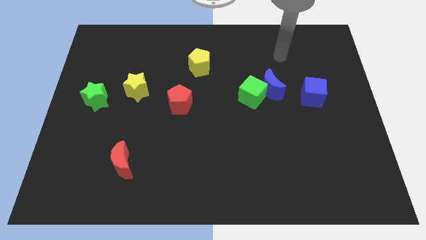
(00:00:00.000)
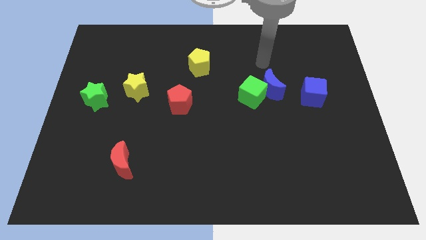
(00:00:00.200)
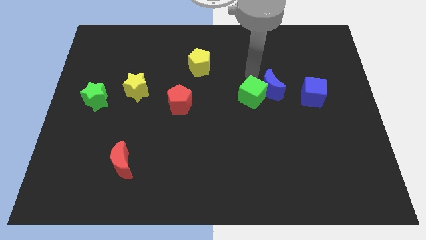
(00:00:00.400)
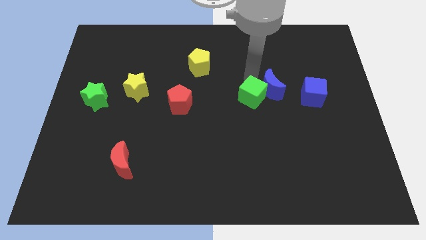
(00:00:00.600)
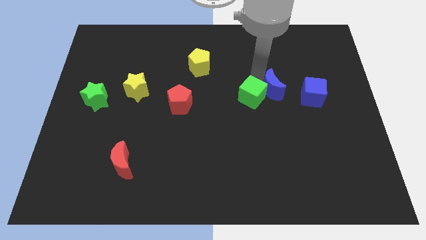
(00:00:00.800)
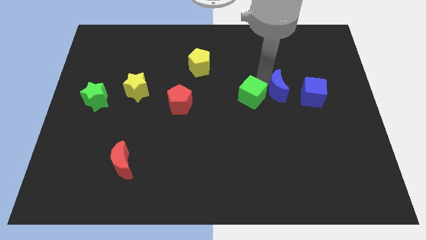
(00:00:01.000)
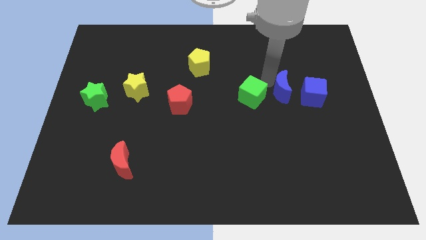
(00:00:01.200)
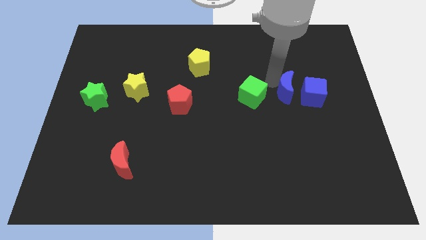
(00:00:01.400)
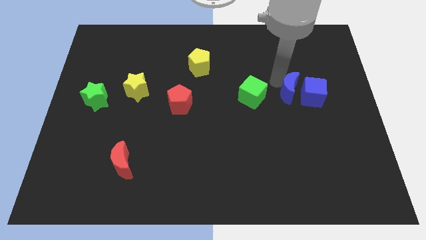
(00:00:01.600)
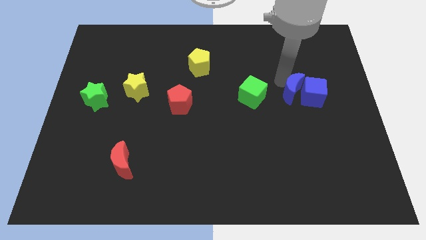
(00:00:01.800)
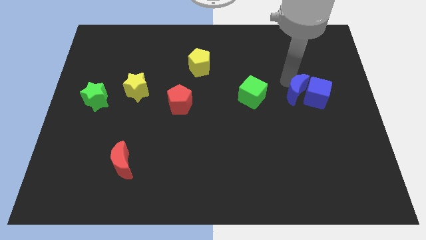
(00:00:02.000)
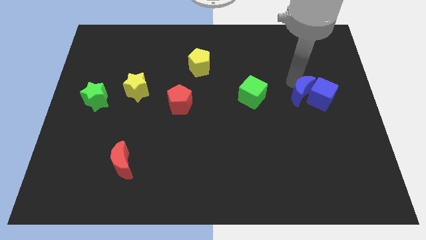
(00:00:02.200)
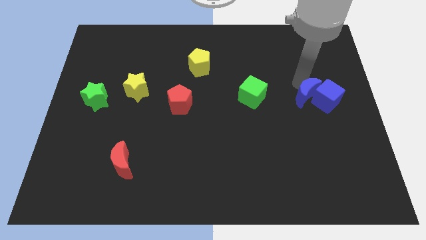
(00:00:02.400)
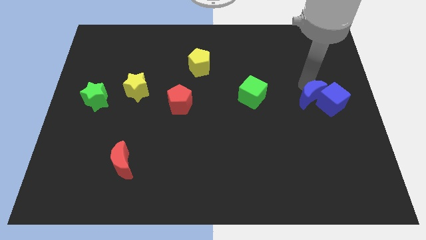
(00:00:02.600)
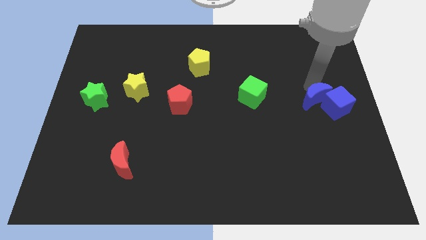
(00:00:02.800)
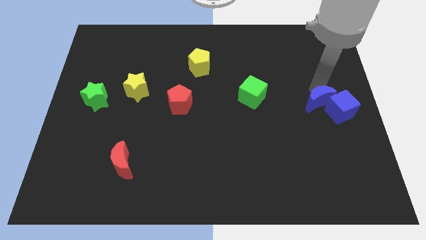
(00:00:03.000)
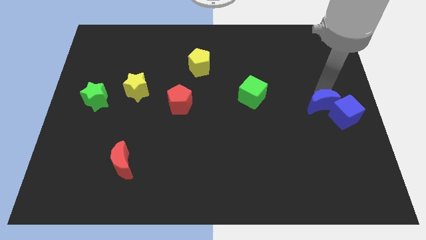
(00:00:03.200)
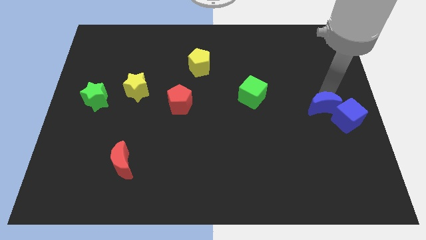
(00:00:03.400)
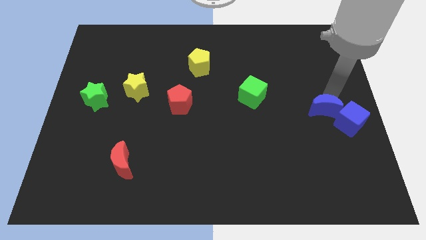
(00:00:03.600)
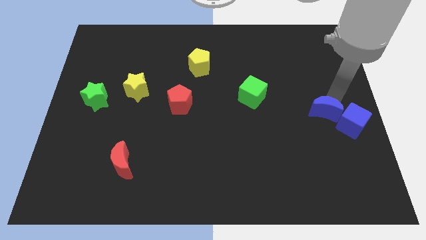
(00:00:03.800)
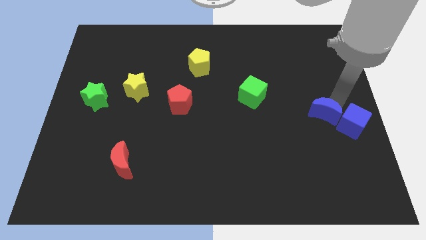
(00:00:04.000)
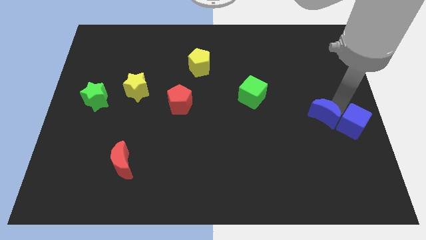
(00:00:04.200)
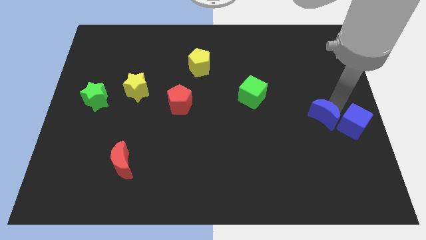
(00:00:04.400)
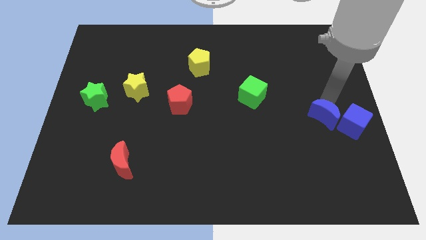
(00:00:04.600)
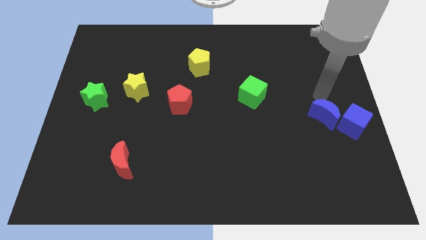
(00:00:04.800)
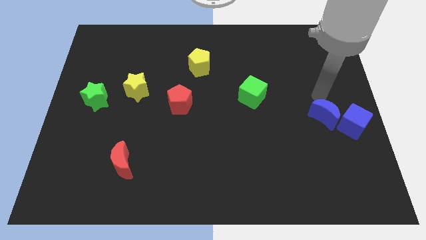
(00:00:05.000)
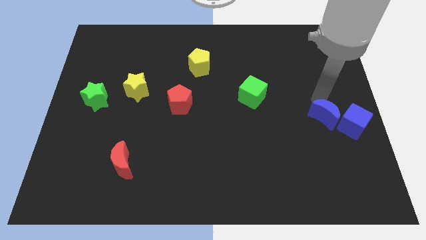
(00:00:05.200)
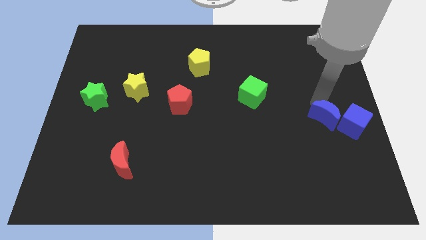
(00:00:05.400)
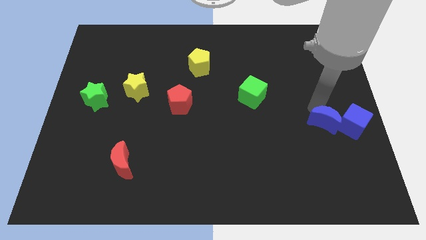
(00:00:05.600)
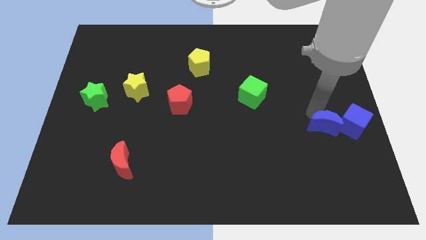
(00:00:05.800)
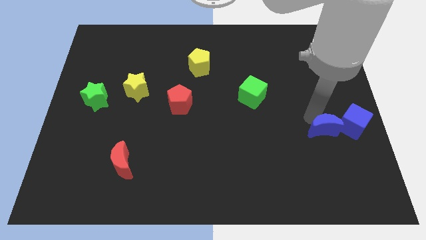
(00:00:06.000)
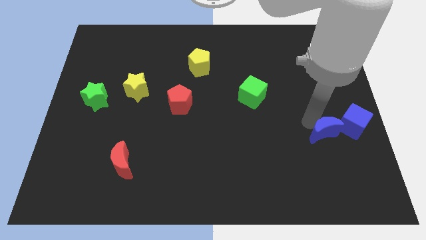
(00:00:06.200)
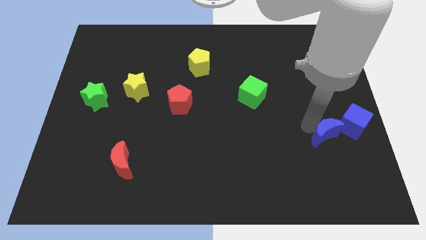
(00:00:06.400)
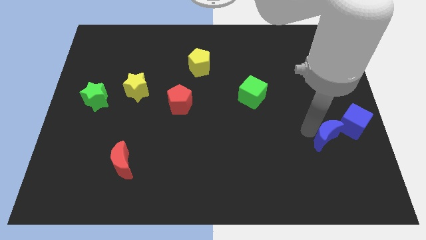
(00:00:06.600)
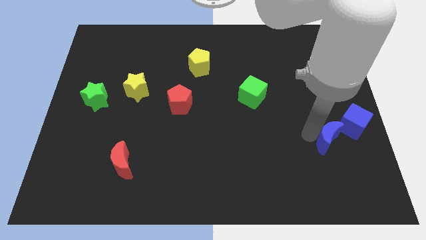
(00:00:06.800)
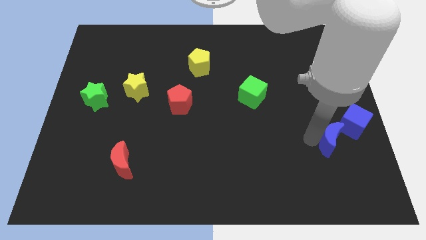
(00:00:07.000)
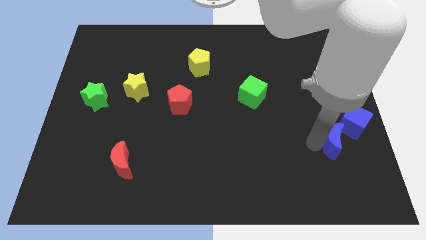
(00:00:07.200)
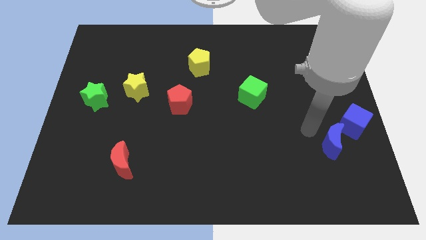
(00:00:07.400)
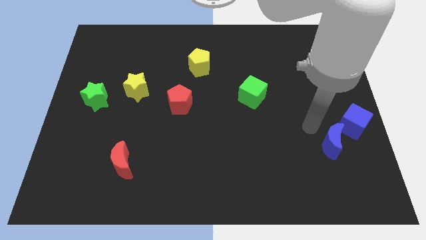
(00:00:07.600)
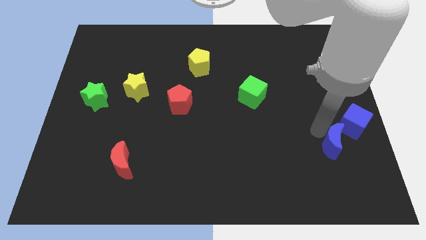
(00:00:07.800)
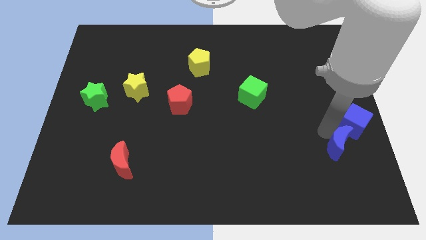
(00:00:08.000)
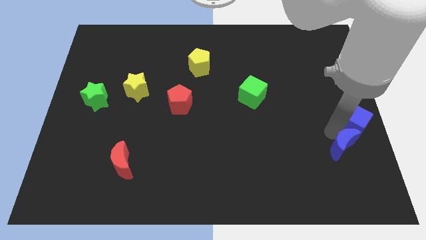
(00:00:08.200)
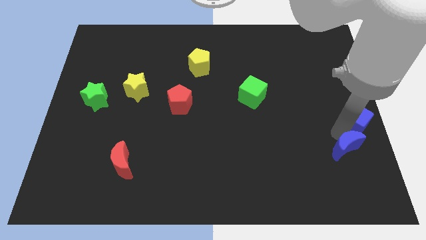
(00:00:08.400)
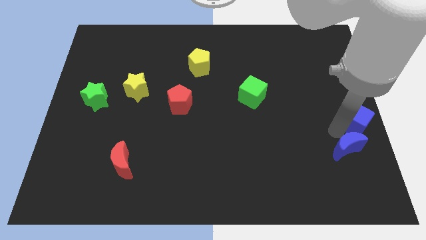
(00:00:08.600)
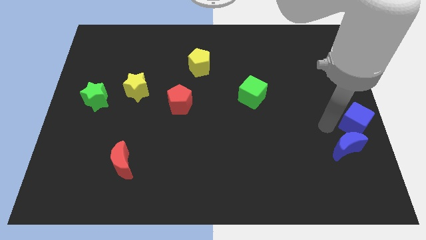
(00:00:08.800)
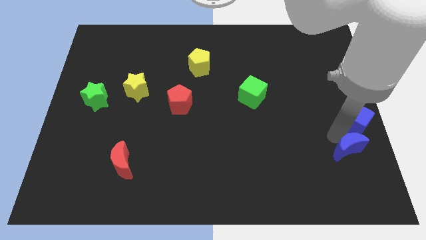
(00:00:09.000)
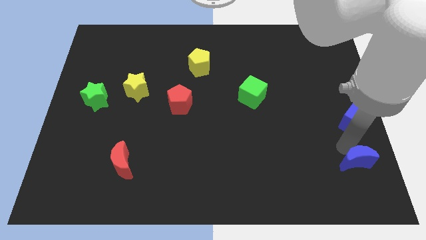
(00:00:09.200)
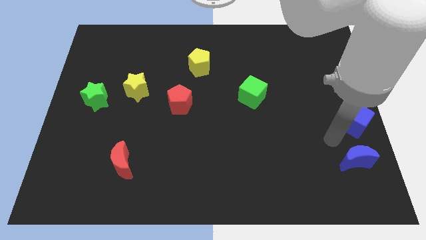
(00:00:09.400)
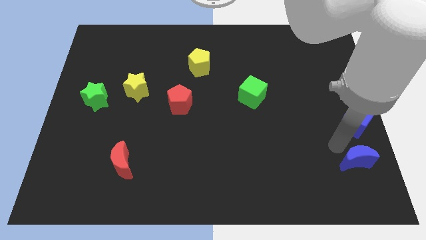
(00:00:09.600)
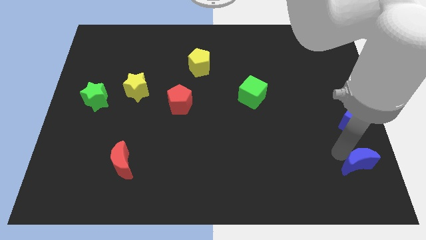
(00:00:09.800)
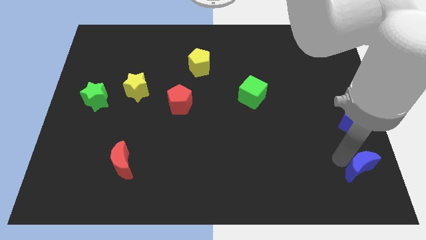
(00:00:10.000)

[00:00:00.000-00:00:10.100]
slide the blue moon to the bottom right corner

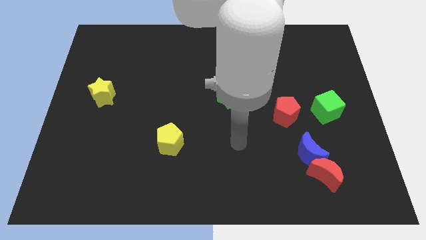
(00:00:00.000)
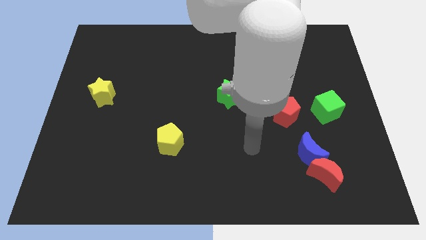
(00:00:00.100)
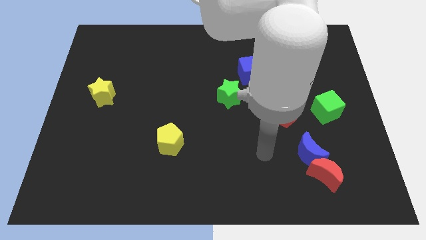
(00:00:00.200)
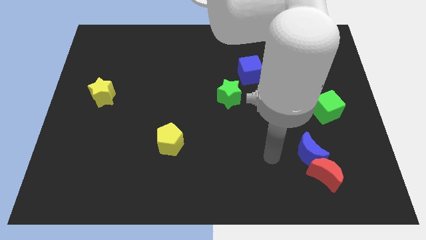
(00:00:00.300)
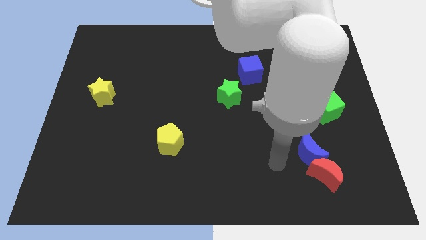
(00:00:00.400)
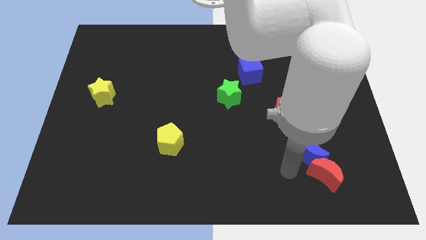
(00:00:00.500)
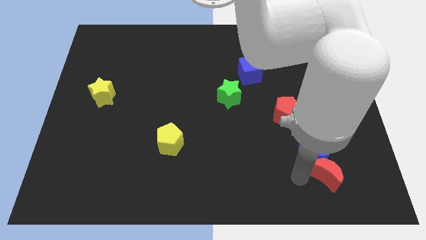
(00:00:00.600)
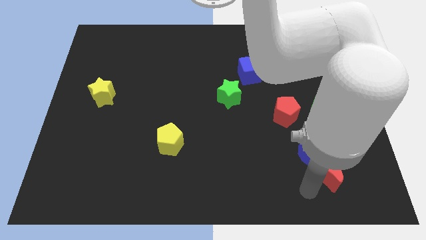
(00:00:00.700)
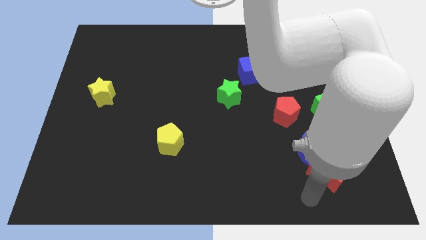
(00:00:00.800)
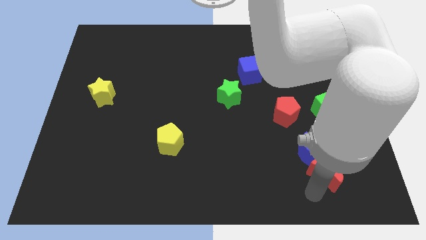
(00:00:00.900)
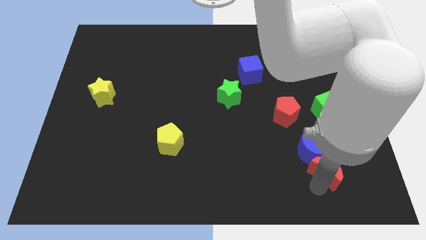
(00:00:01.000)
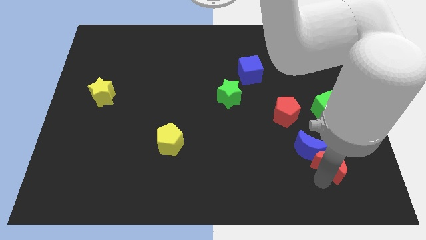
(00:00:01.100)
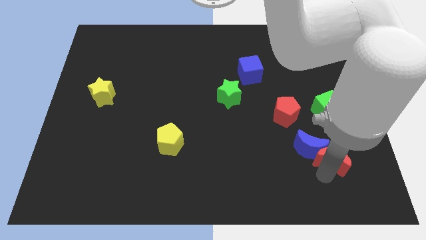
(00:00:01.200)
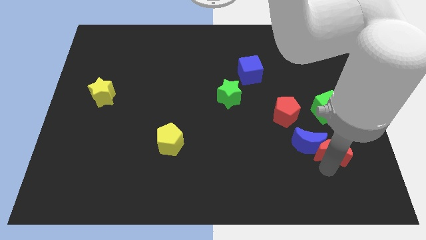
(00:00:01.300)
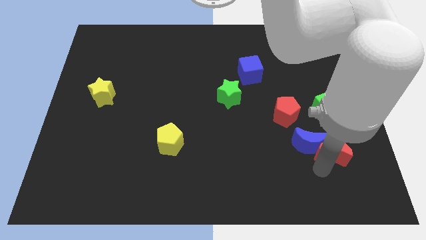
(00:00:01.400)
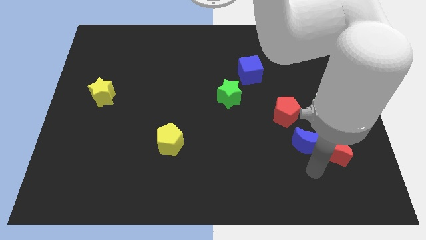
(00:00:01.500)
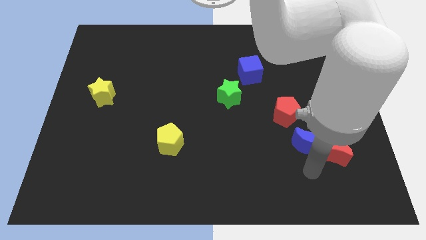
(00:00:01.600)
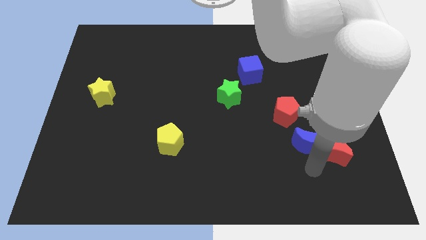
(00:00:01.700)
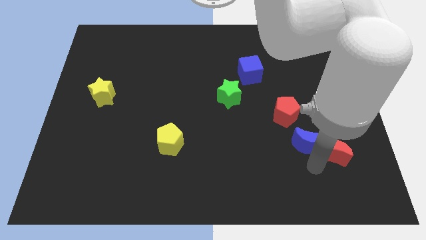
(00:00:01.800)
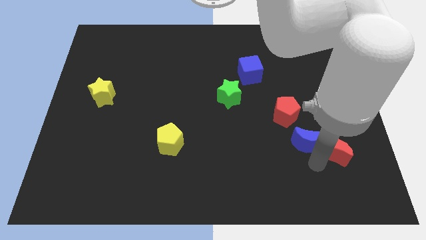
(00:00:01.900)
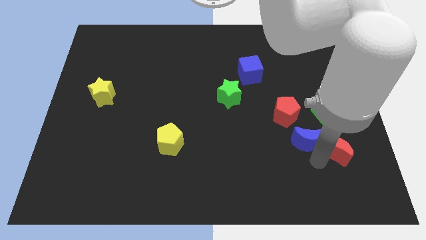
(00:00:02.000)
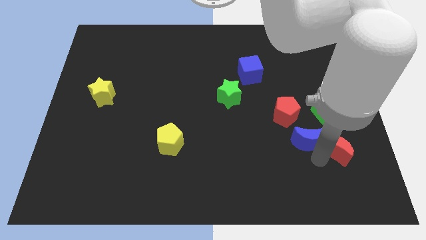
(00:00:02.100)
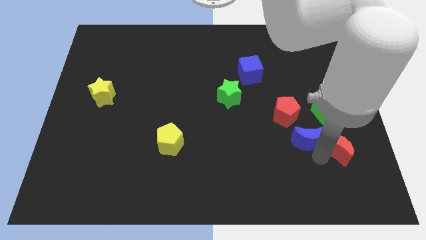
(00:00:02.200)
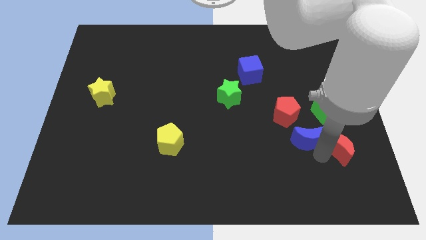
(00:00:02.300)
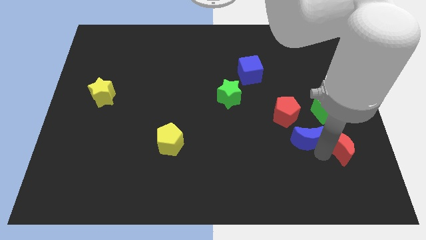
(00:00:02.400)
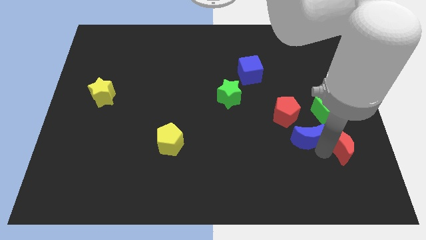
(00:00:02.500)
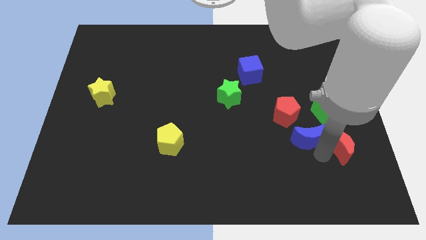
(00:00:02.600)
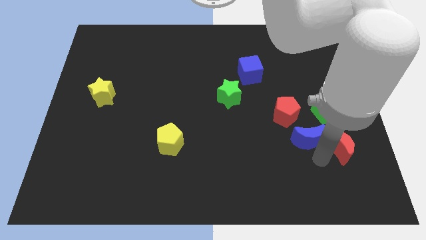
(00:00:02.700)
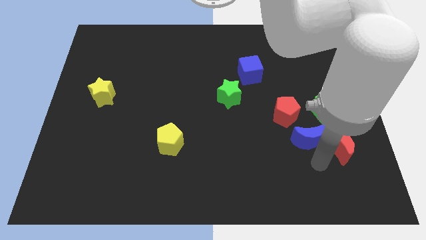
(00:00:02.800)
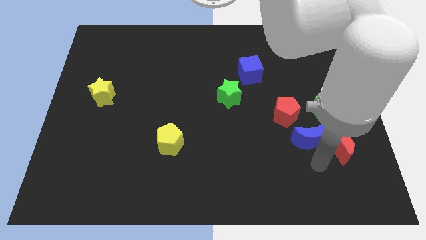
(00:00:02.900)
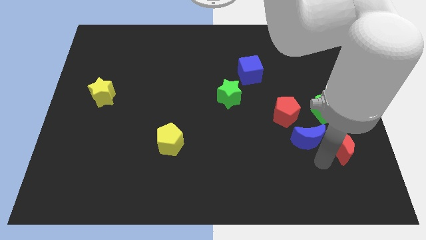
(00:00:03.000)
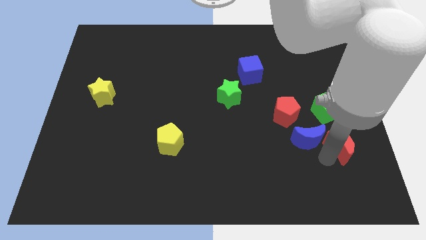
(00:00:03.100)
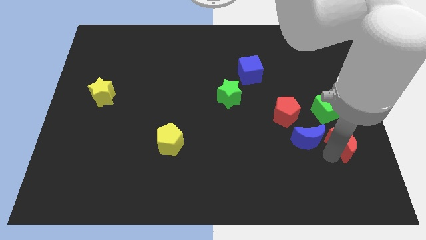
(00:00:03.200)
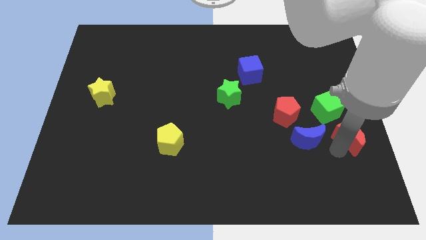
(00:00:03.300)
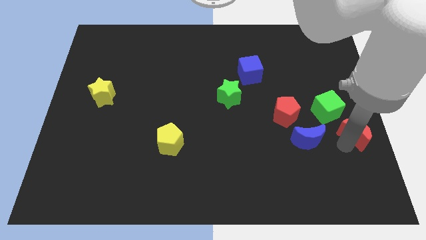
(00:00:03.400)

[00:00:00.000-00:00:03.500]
push the red moon to the right side of the board
